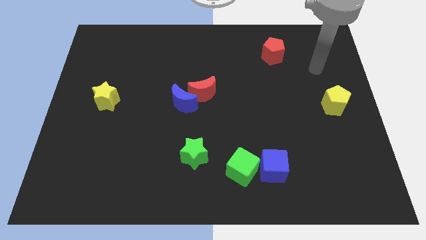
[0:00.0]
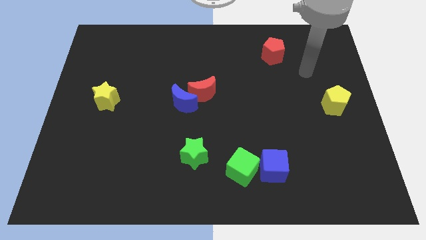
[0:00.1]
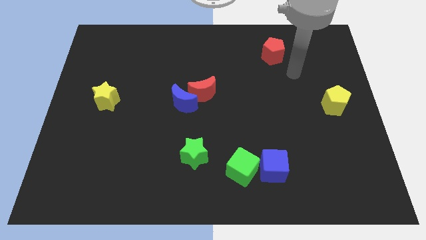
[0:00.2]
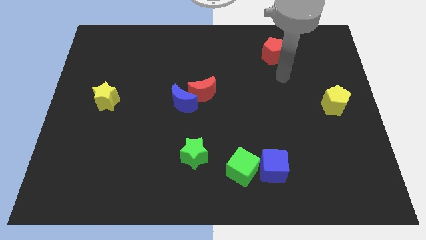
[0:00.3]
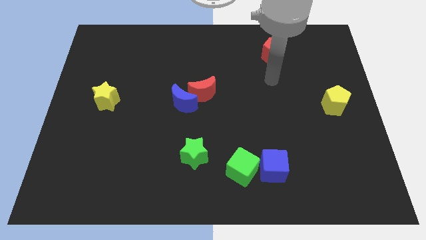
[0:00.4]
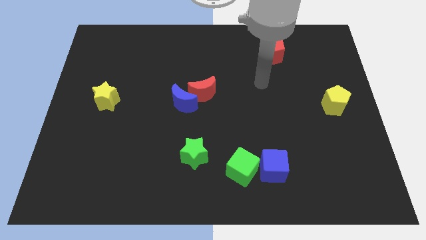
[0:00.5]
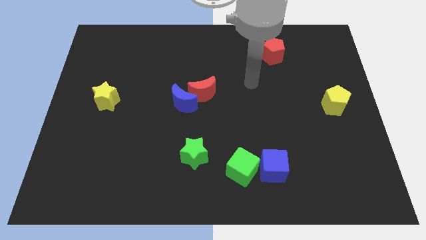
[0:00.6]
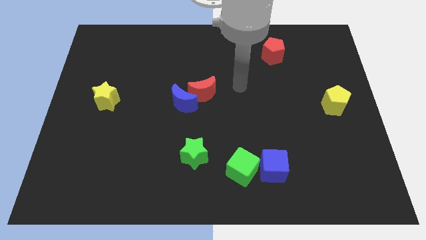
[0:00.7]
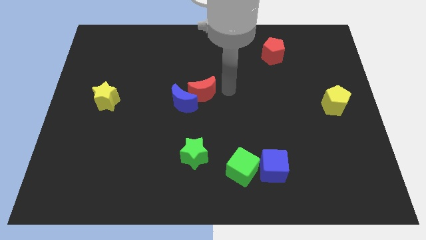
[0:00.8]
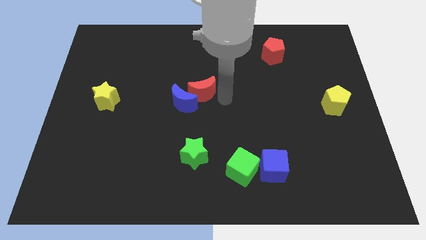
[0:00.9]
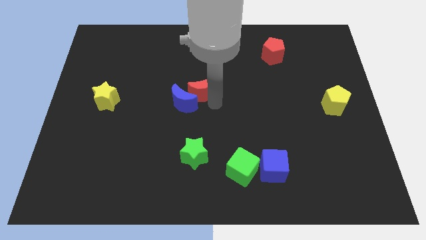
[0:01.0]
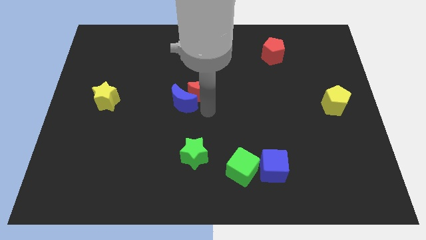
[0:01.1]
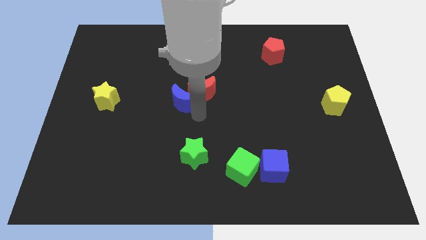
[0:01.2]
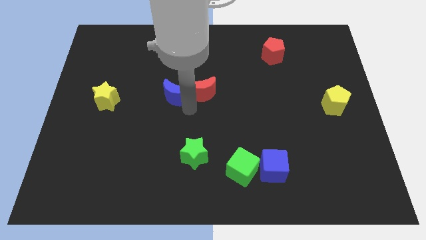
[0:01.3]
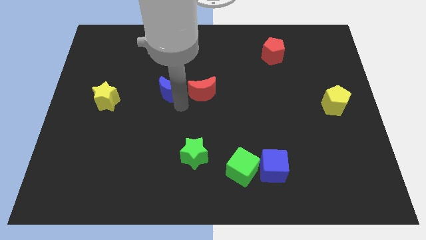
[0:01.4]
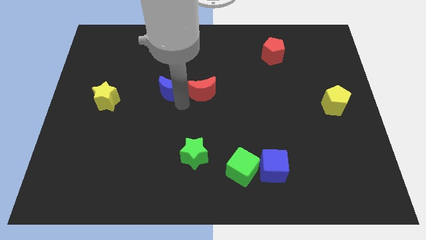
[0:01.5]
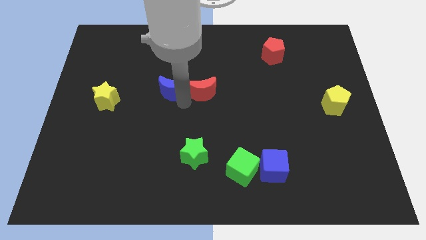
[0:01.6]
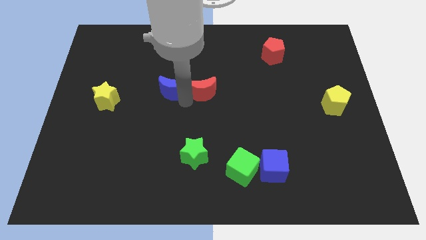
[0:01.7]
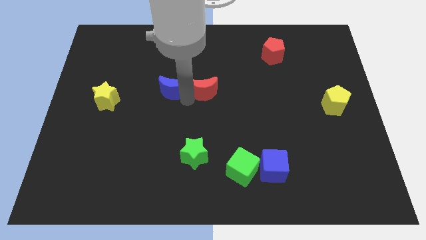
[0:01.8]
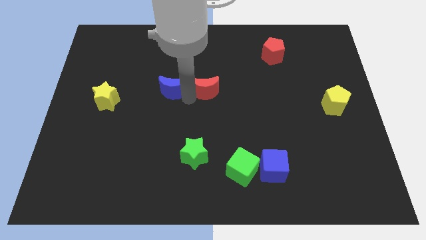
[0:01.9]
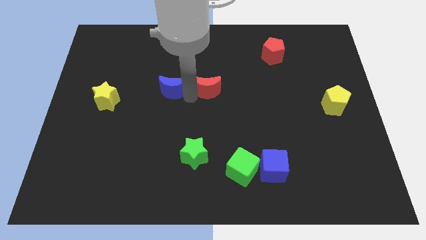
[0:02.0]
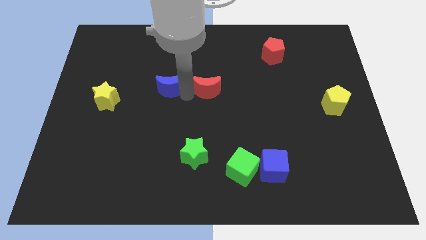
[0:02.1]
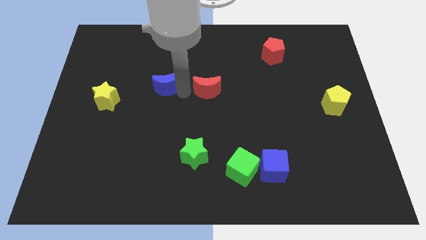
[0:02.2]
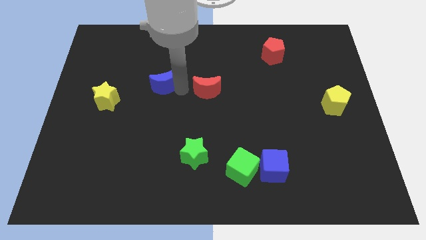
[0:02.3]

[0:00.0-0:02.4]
separate the red moon from the blue moon

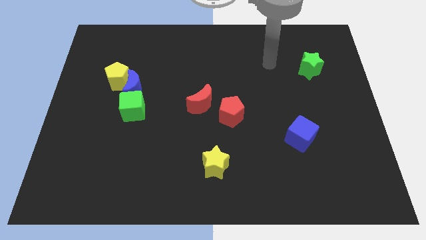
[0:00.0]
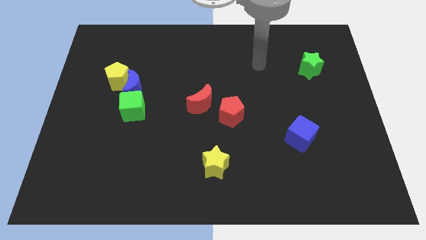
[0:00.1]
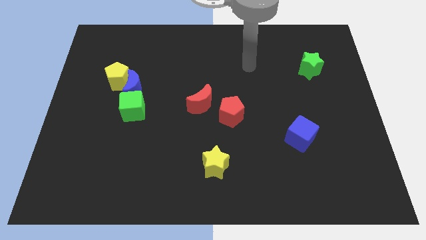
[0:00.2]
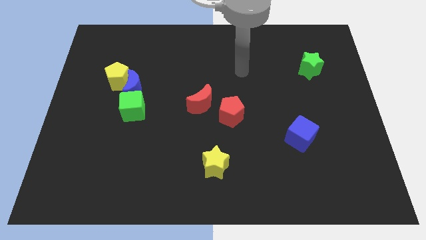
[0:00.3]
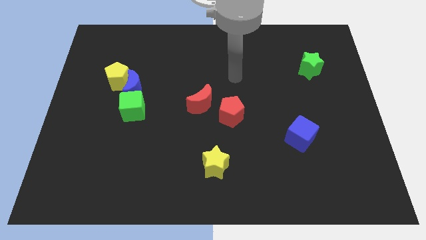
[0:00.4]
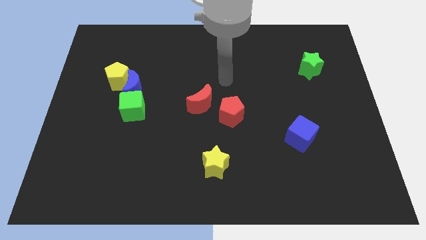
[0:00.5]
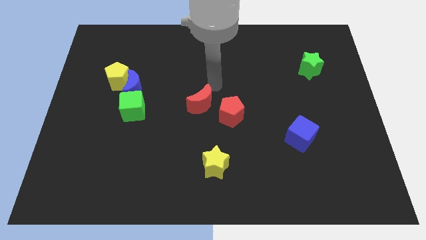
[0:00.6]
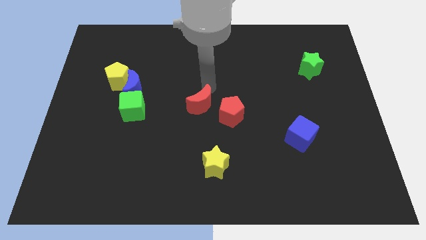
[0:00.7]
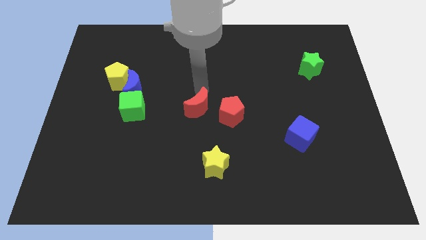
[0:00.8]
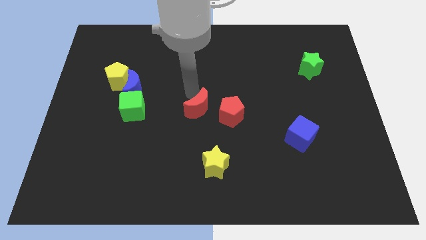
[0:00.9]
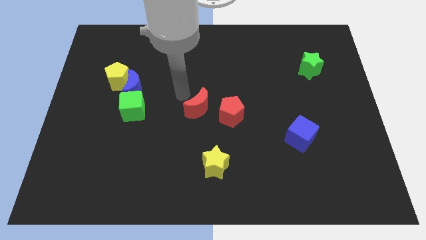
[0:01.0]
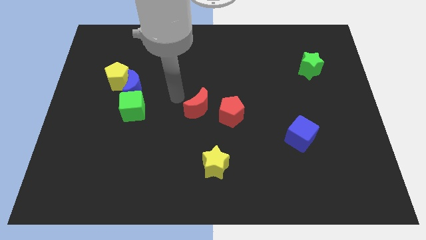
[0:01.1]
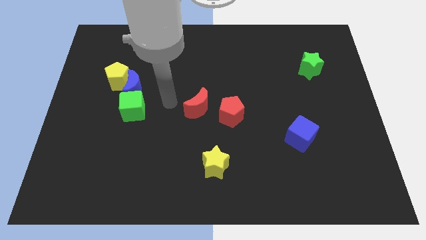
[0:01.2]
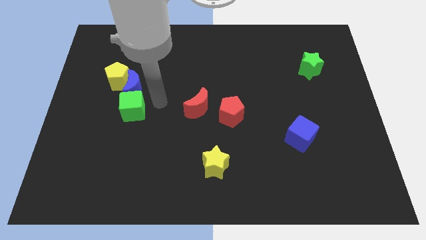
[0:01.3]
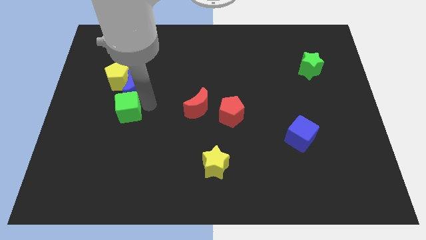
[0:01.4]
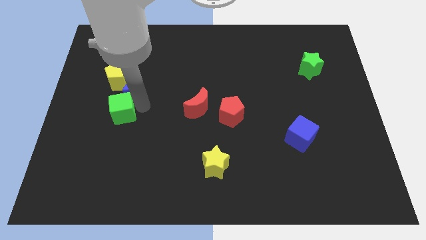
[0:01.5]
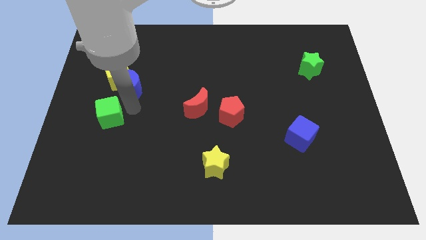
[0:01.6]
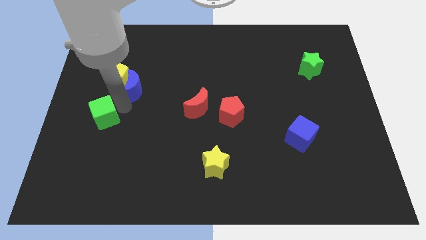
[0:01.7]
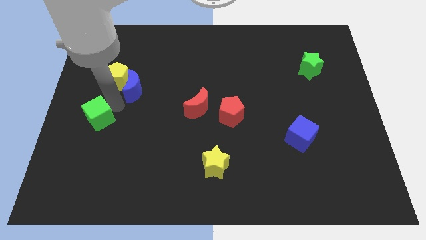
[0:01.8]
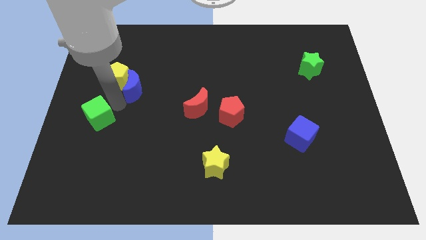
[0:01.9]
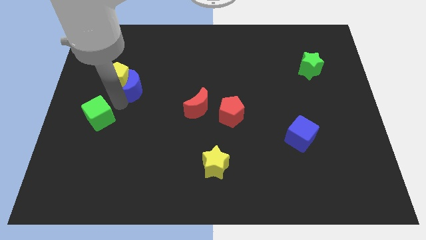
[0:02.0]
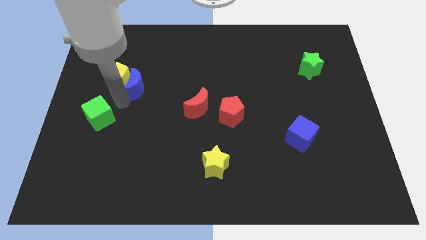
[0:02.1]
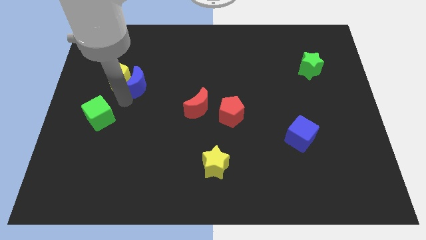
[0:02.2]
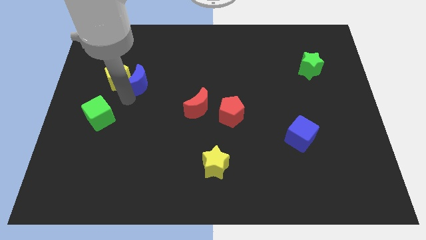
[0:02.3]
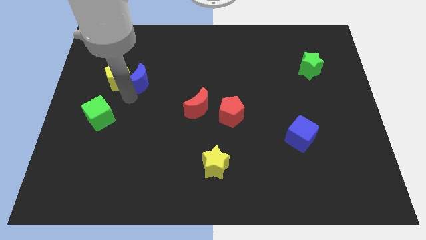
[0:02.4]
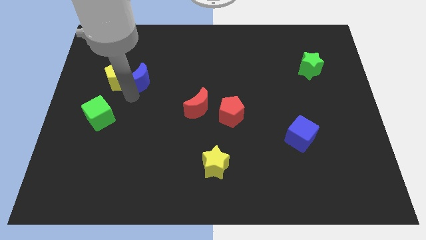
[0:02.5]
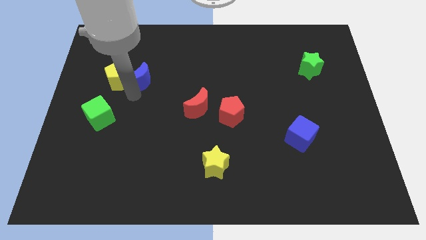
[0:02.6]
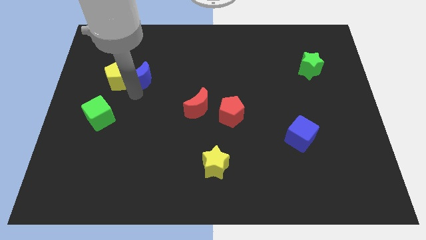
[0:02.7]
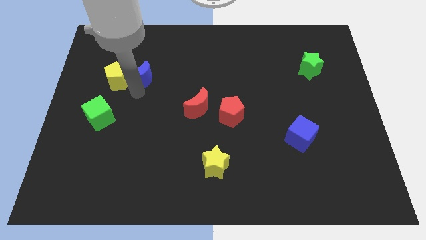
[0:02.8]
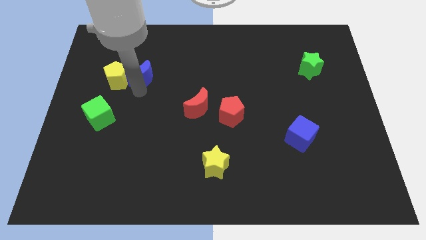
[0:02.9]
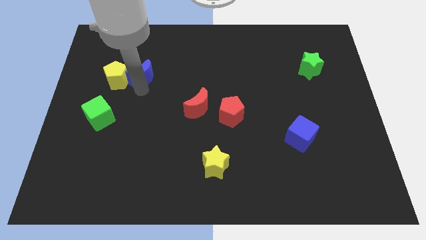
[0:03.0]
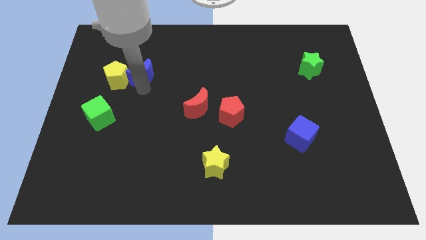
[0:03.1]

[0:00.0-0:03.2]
pull the blue moon apart from the yellow pentagon and green cube

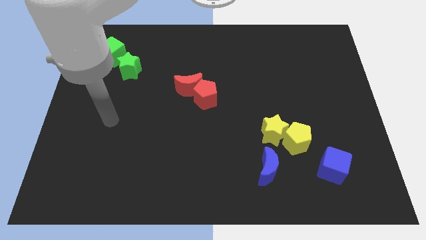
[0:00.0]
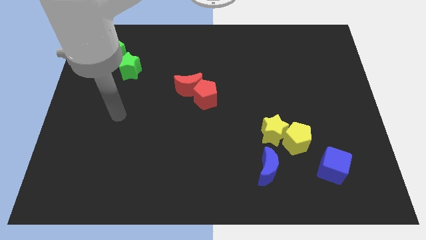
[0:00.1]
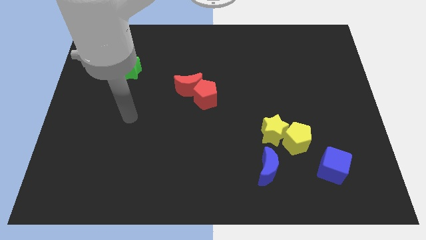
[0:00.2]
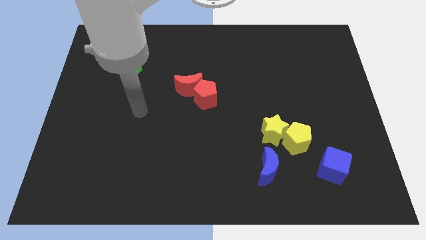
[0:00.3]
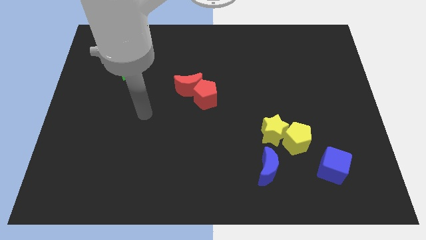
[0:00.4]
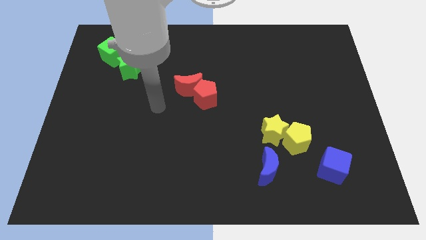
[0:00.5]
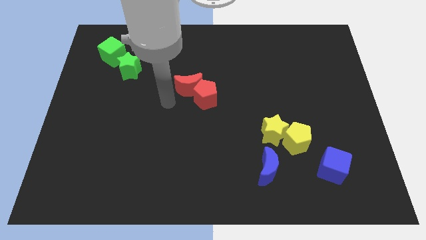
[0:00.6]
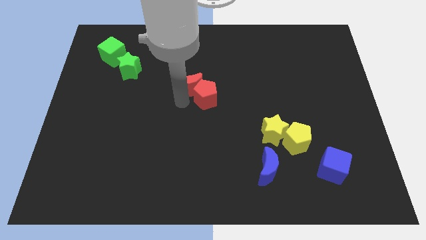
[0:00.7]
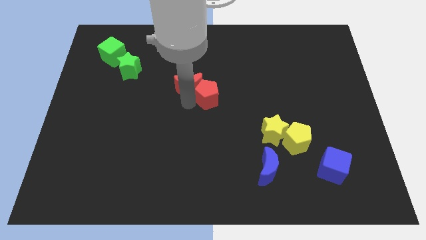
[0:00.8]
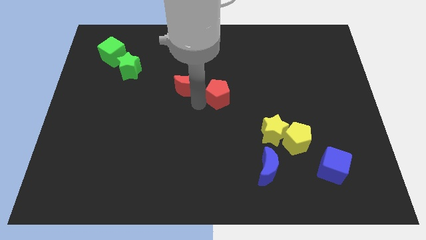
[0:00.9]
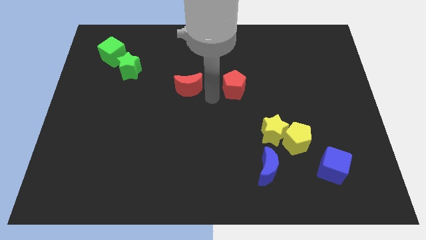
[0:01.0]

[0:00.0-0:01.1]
pull the red moon apart from the red pentagon

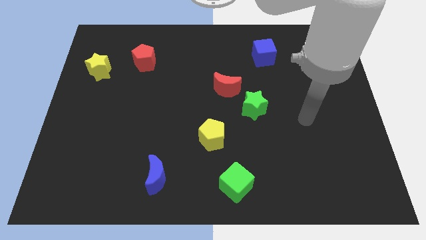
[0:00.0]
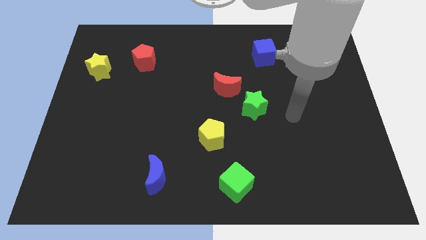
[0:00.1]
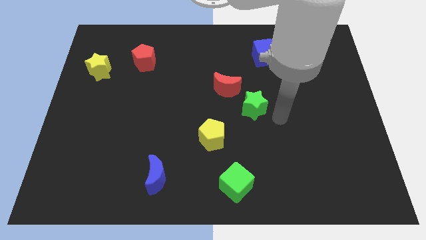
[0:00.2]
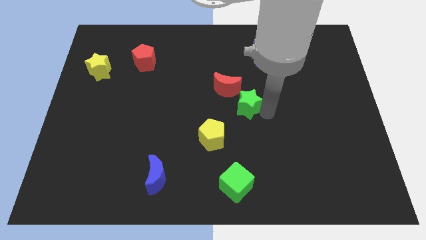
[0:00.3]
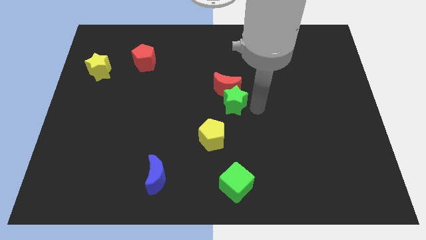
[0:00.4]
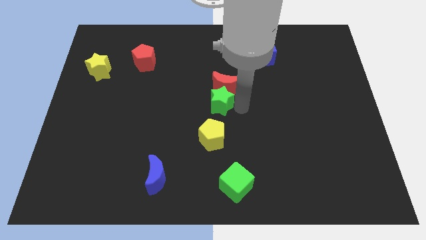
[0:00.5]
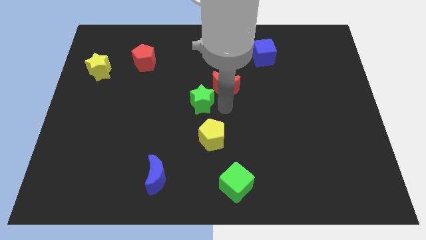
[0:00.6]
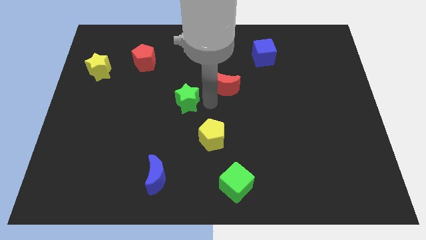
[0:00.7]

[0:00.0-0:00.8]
pull the red moon apart from the green star

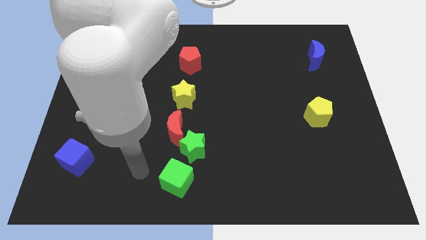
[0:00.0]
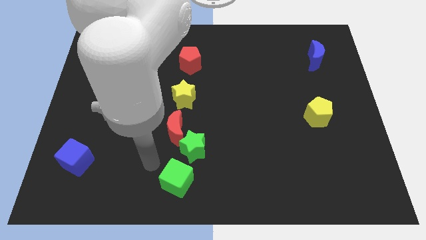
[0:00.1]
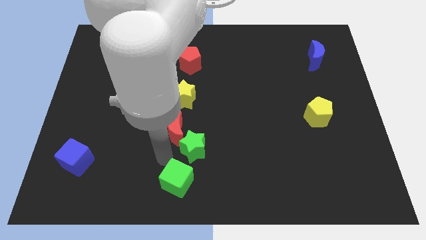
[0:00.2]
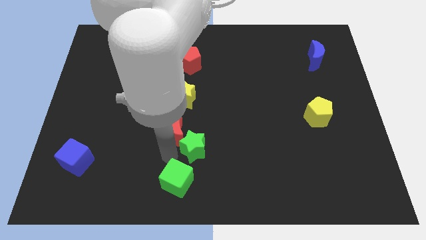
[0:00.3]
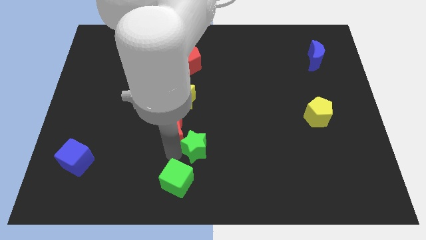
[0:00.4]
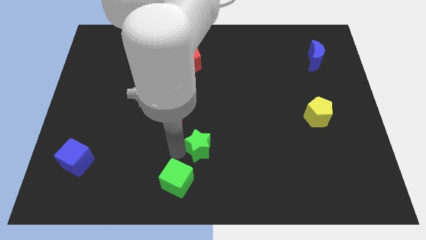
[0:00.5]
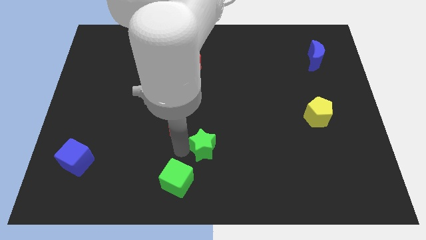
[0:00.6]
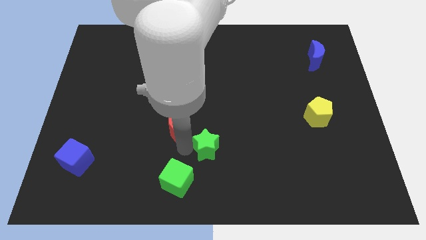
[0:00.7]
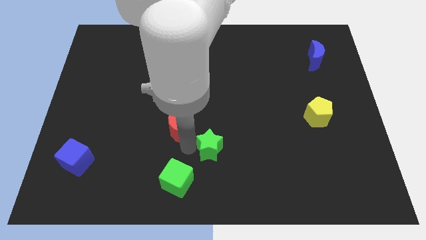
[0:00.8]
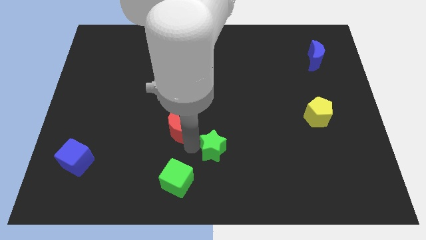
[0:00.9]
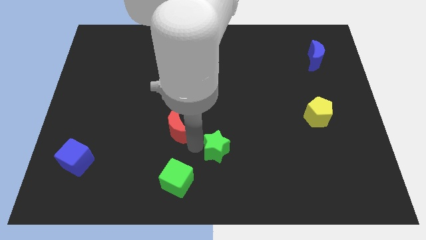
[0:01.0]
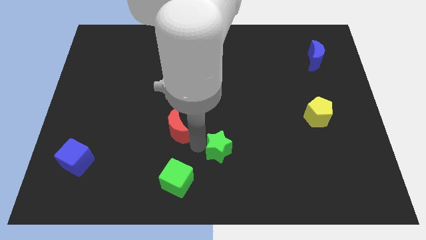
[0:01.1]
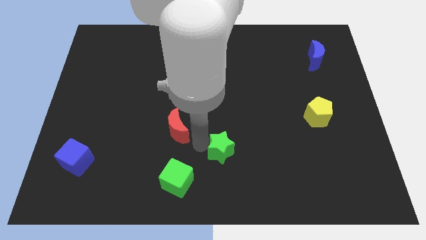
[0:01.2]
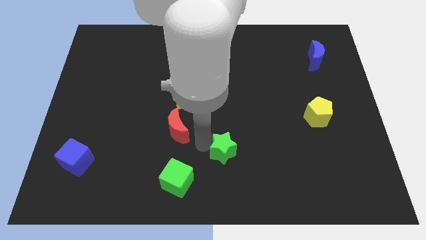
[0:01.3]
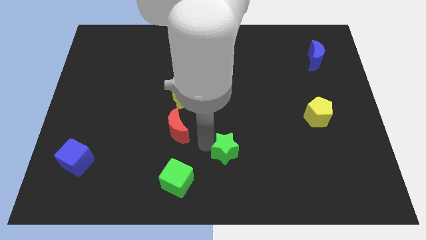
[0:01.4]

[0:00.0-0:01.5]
separate the green star from the red moon and green cube

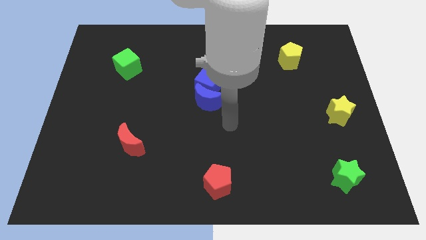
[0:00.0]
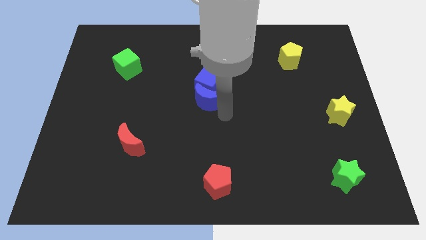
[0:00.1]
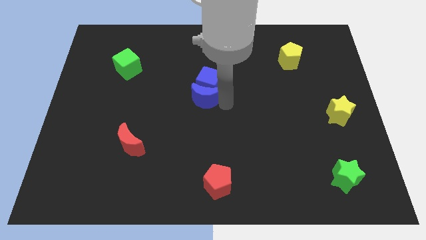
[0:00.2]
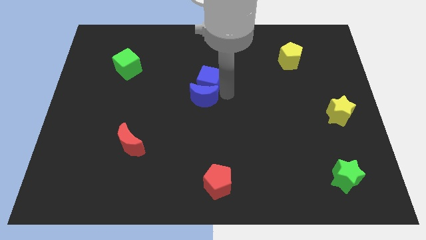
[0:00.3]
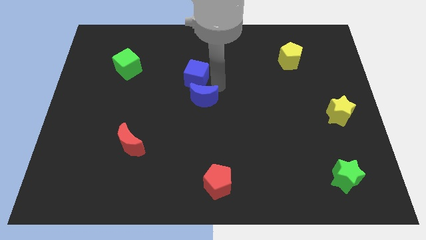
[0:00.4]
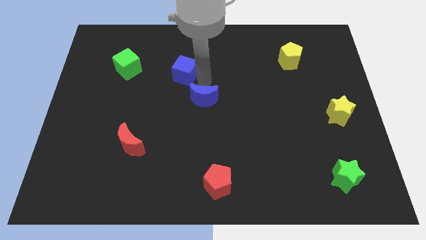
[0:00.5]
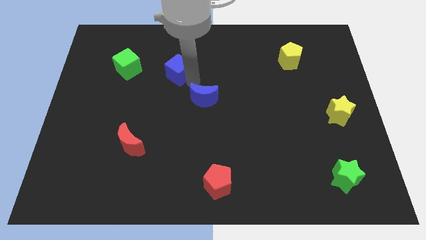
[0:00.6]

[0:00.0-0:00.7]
separate the blue moon from the blue cube
